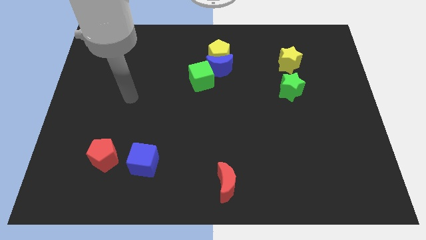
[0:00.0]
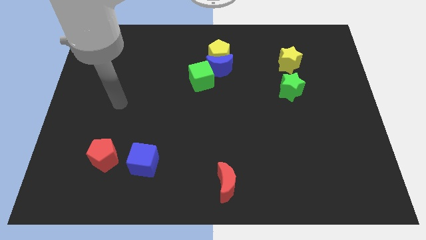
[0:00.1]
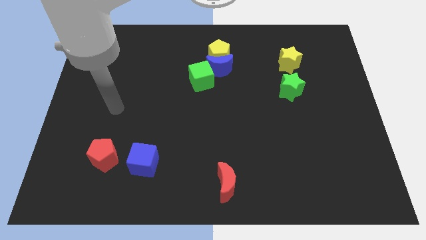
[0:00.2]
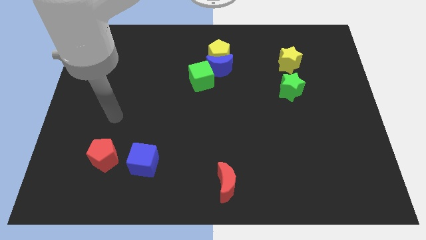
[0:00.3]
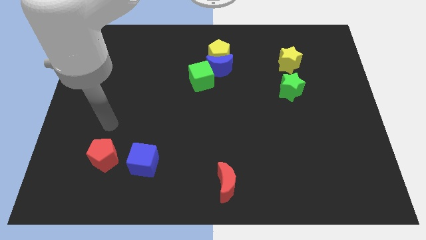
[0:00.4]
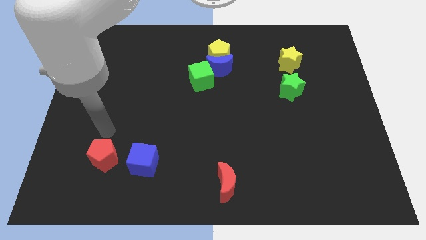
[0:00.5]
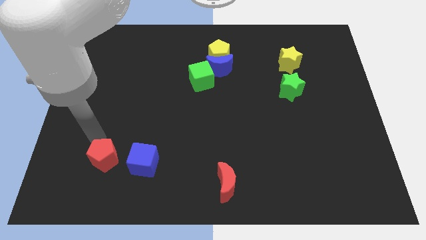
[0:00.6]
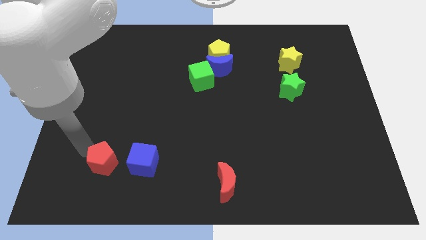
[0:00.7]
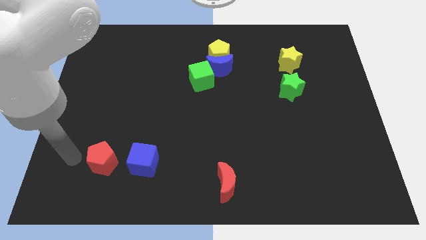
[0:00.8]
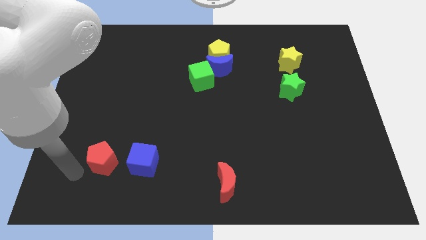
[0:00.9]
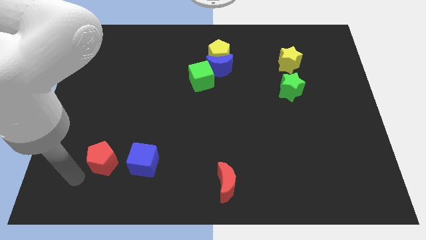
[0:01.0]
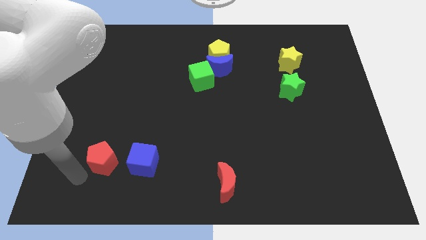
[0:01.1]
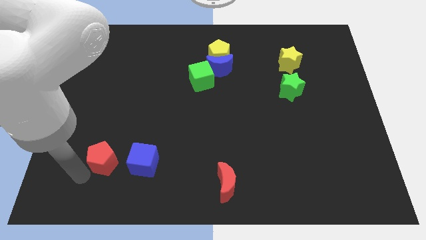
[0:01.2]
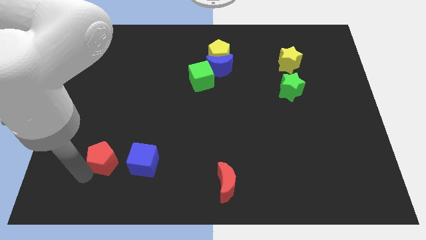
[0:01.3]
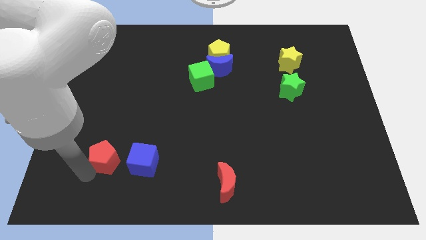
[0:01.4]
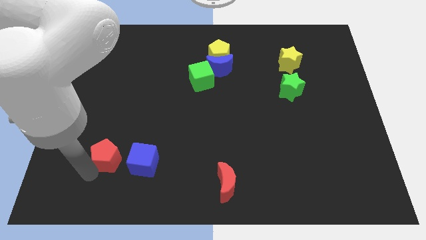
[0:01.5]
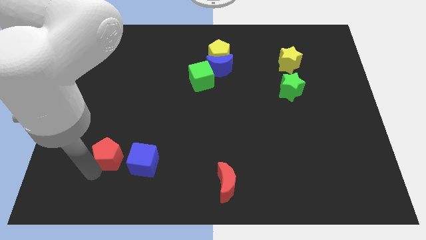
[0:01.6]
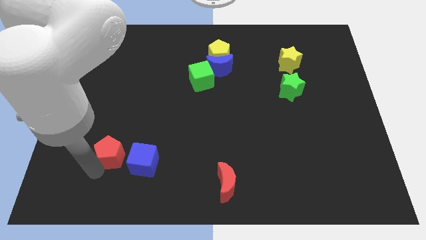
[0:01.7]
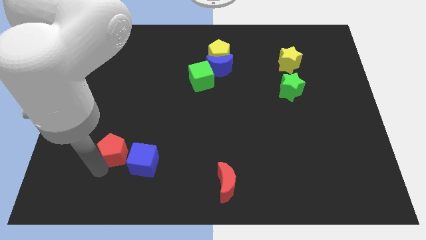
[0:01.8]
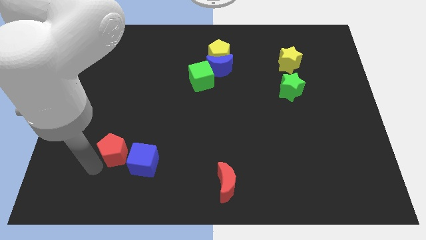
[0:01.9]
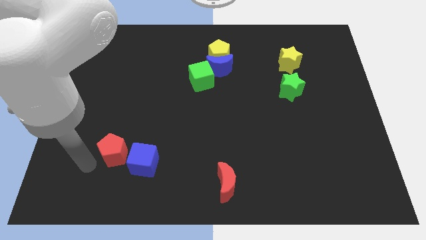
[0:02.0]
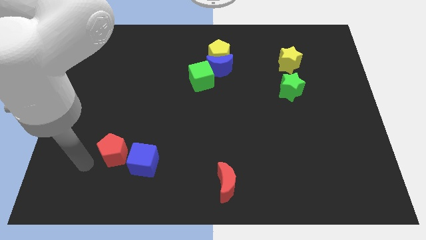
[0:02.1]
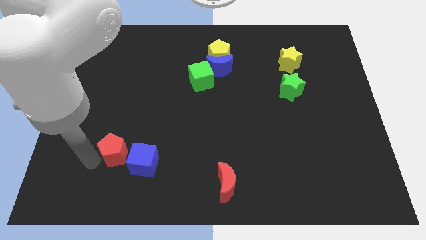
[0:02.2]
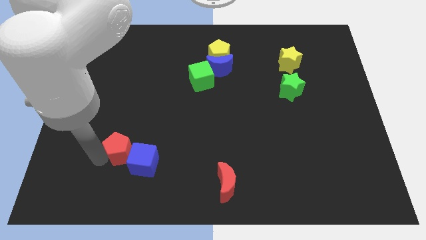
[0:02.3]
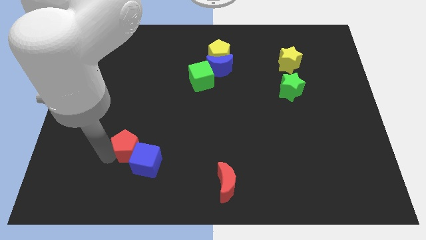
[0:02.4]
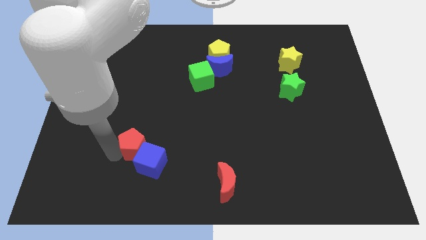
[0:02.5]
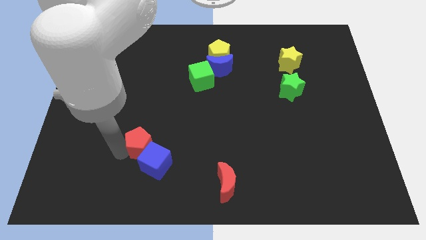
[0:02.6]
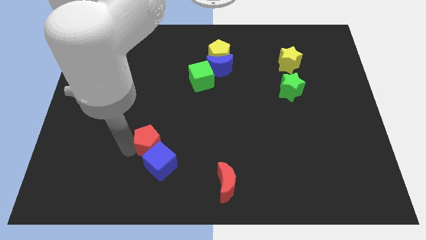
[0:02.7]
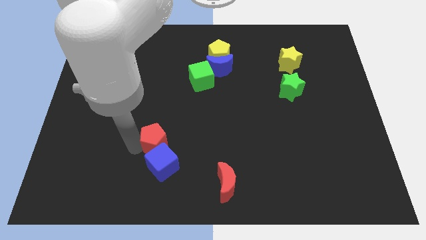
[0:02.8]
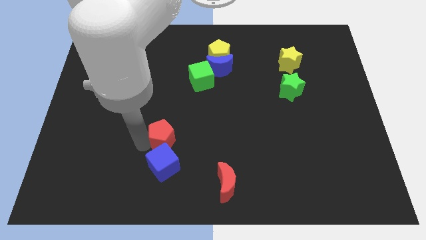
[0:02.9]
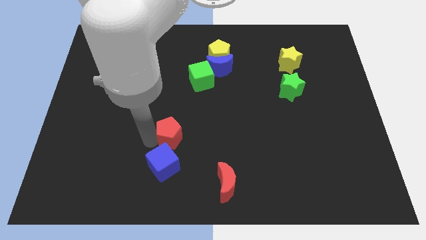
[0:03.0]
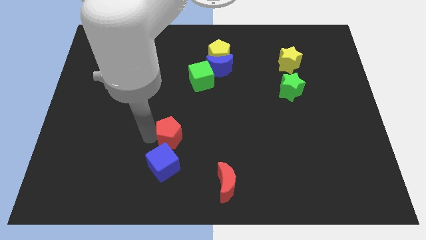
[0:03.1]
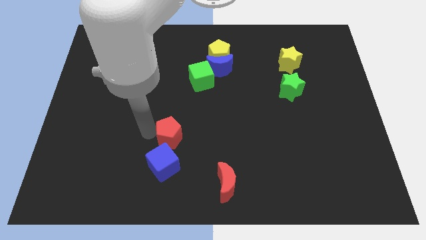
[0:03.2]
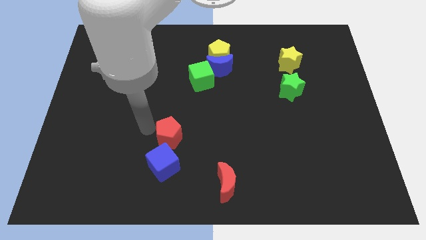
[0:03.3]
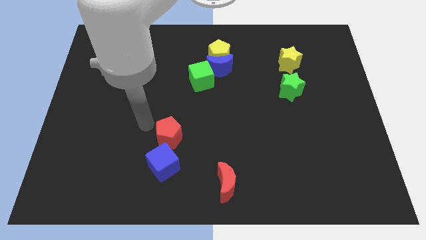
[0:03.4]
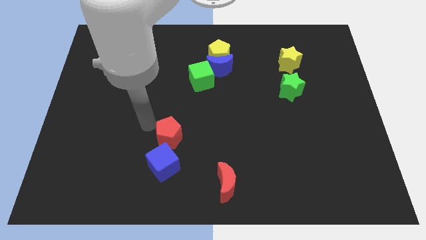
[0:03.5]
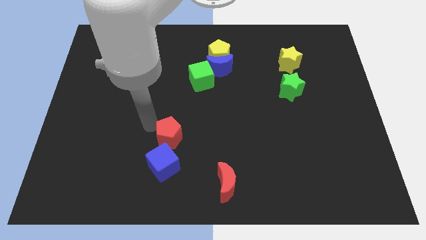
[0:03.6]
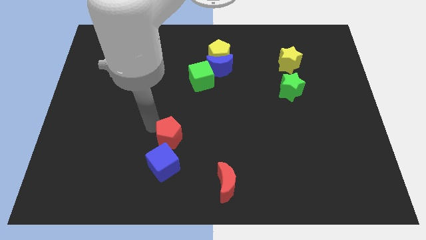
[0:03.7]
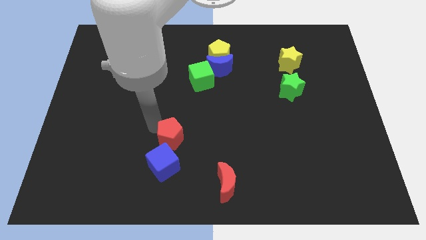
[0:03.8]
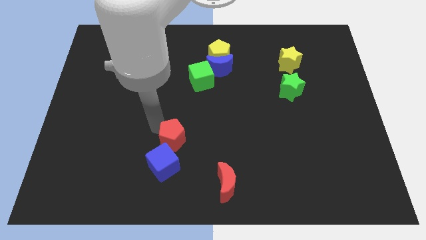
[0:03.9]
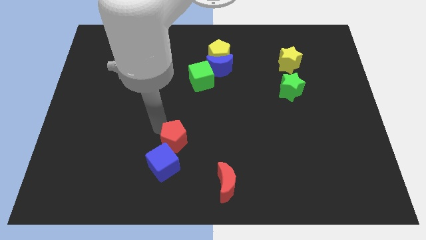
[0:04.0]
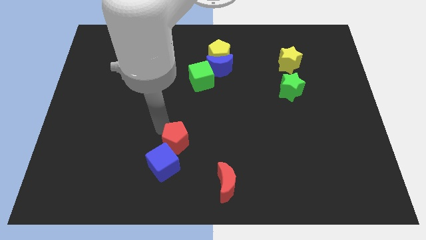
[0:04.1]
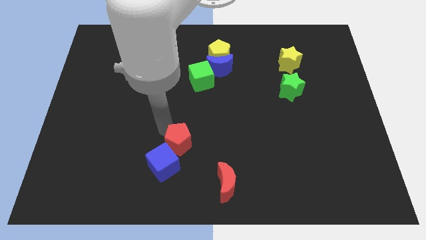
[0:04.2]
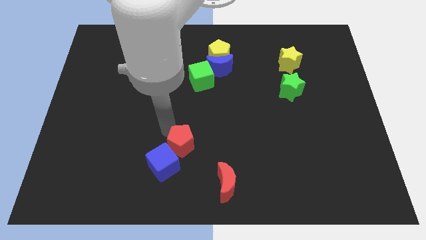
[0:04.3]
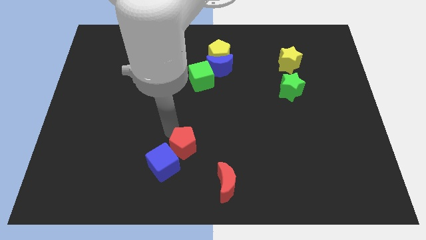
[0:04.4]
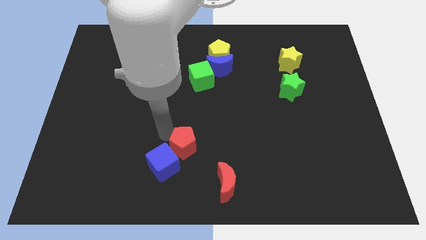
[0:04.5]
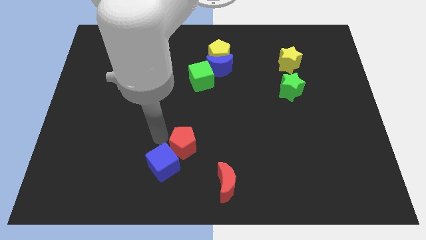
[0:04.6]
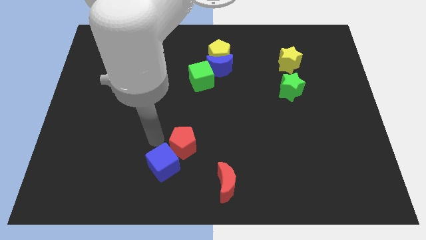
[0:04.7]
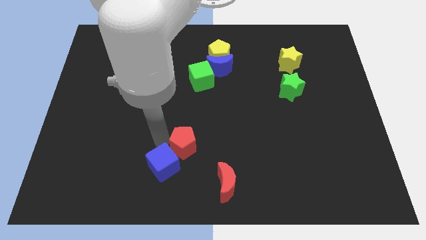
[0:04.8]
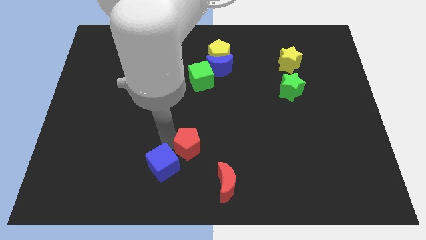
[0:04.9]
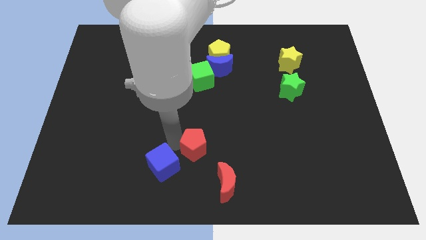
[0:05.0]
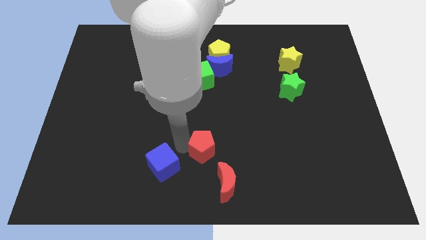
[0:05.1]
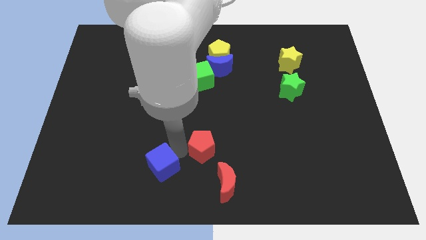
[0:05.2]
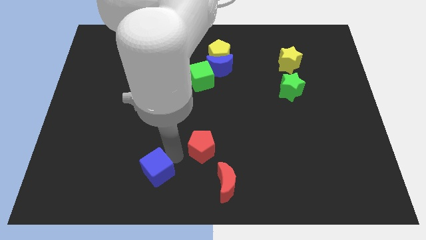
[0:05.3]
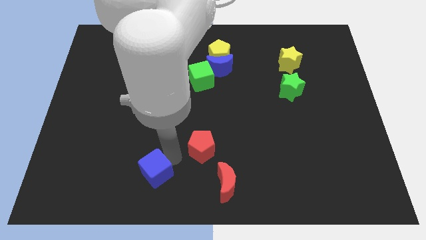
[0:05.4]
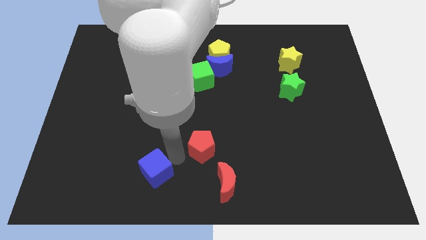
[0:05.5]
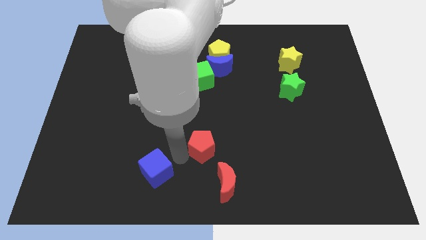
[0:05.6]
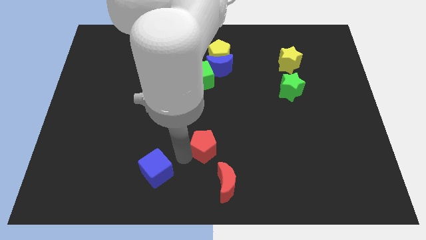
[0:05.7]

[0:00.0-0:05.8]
push the red pentagon to the top of the red moon

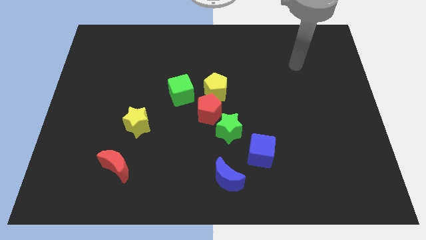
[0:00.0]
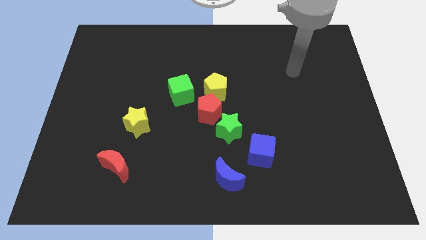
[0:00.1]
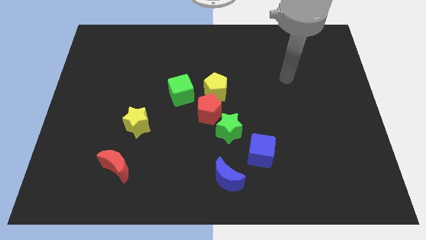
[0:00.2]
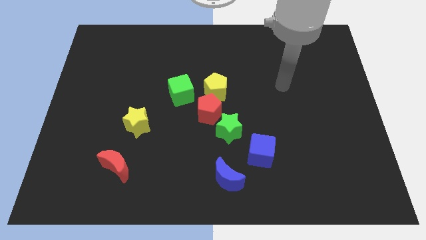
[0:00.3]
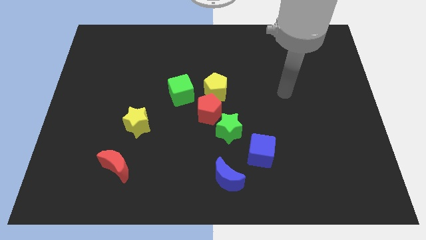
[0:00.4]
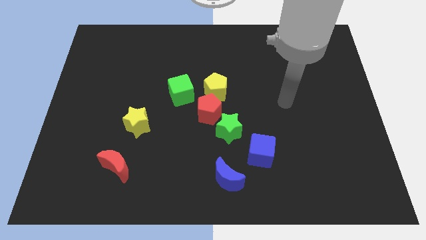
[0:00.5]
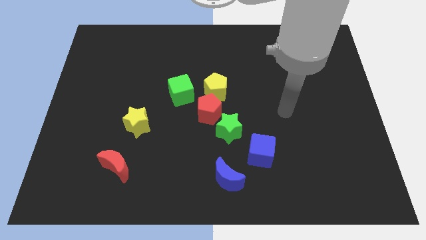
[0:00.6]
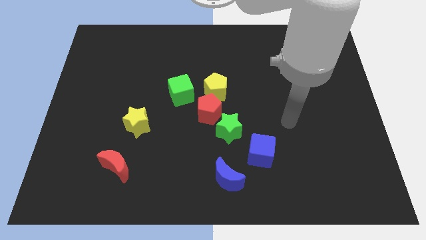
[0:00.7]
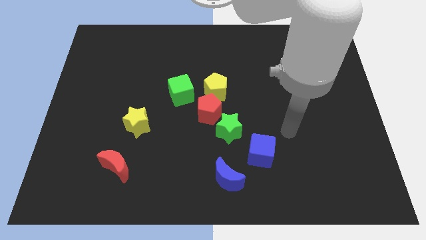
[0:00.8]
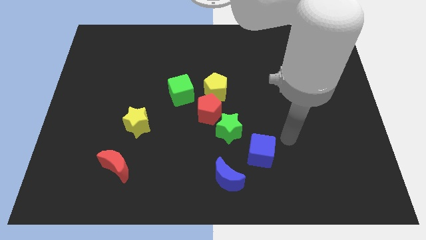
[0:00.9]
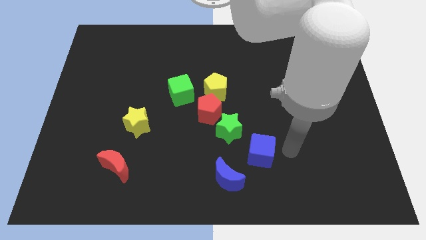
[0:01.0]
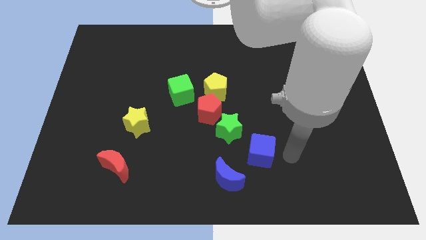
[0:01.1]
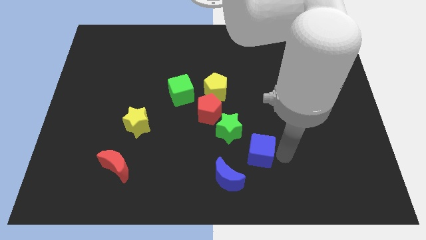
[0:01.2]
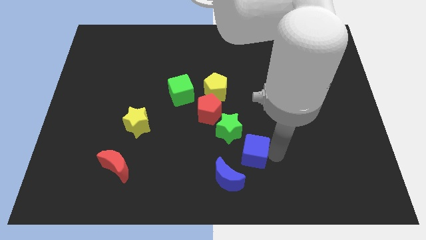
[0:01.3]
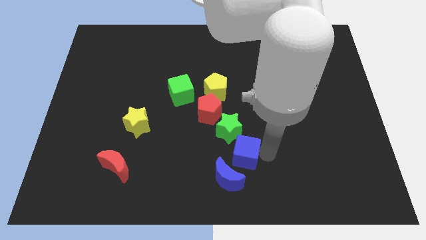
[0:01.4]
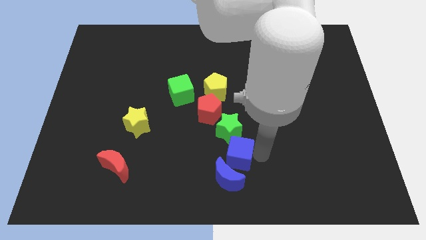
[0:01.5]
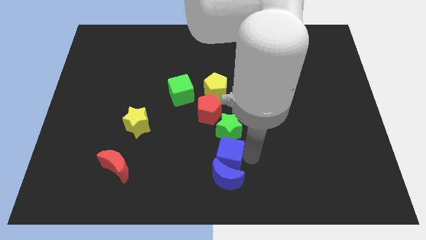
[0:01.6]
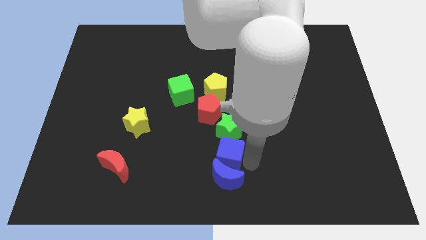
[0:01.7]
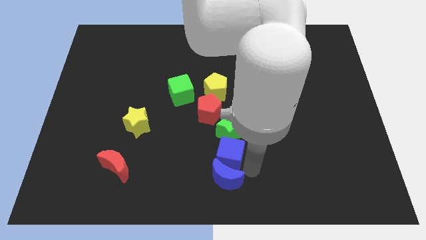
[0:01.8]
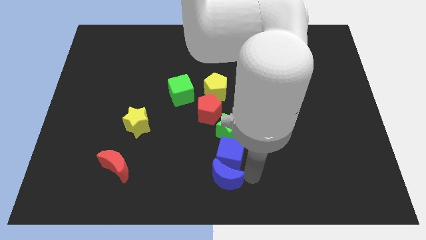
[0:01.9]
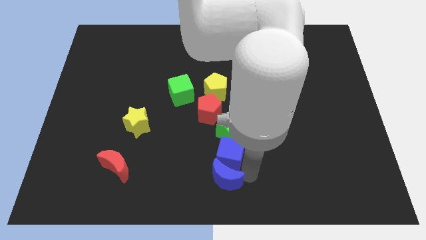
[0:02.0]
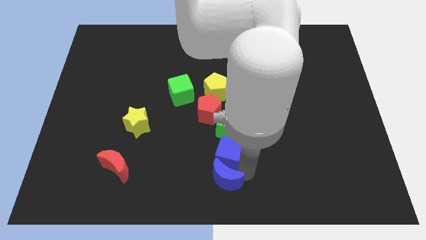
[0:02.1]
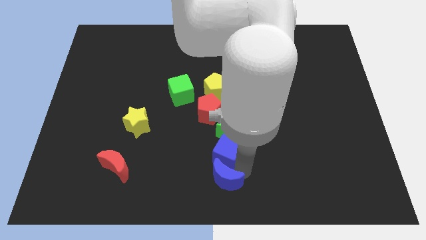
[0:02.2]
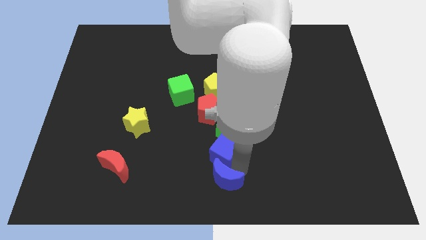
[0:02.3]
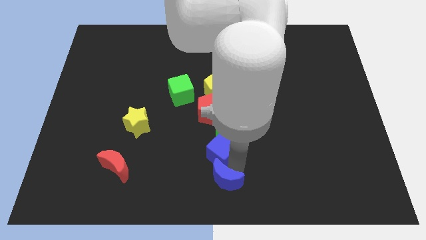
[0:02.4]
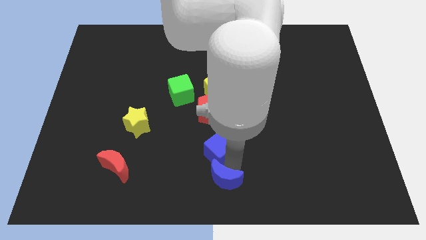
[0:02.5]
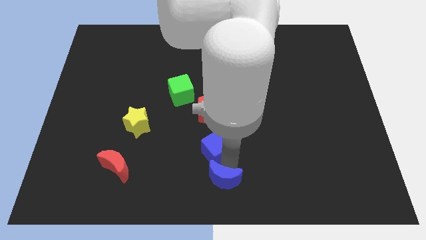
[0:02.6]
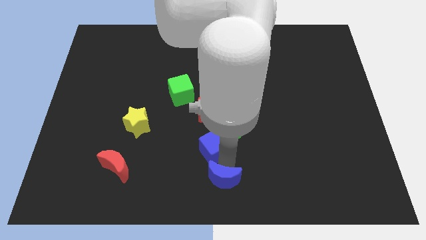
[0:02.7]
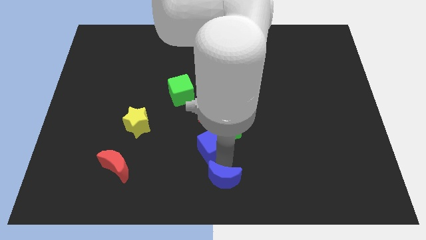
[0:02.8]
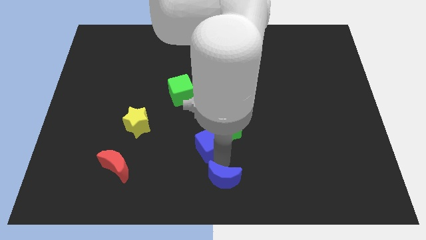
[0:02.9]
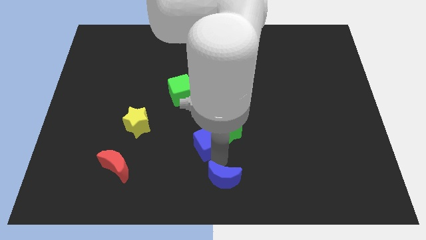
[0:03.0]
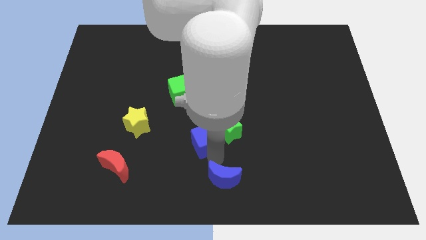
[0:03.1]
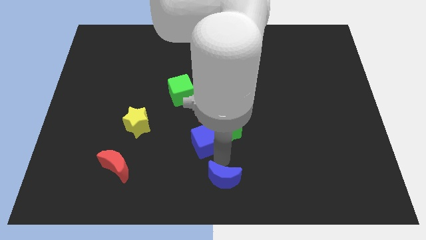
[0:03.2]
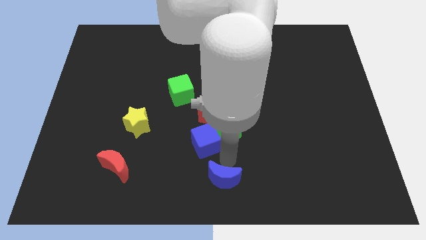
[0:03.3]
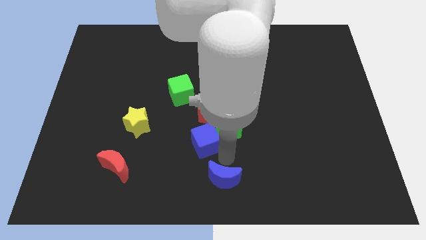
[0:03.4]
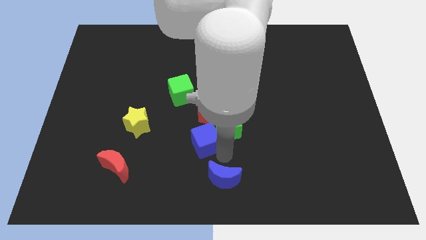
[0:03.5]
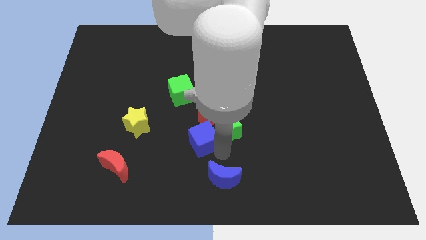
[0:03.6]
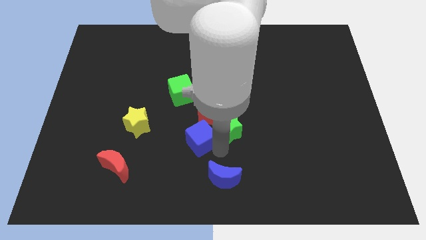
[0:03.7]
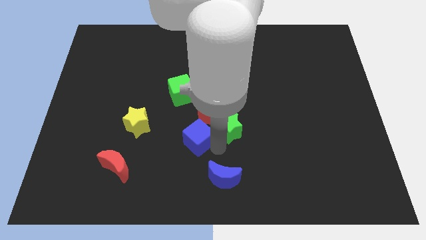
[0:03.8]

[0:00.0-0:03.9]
put the blue cube right of the yellow star
